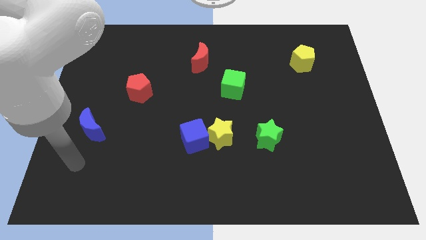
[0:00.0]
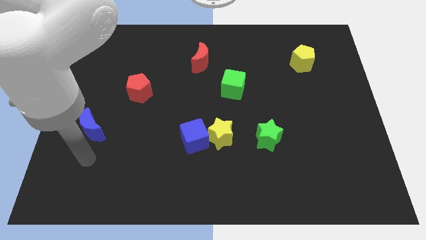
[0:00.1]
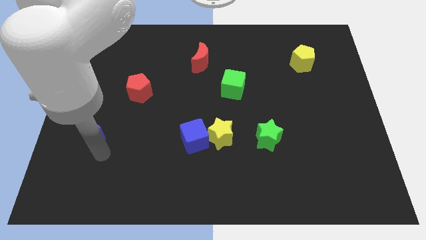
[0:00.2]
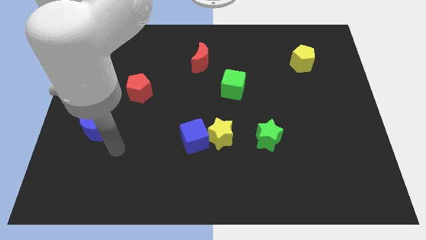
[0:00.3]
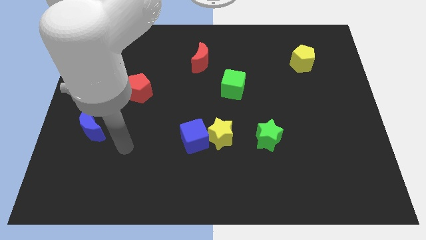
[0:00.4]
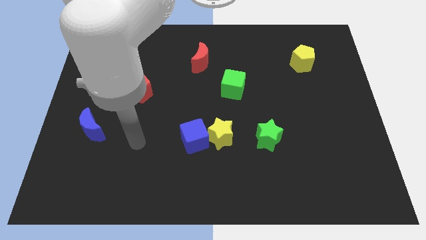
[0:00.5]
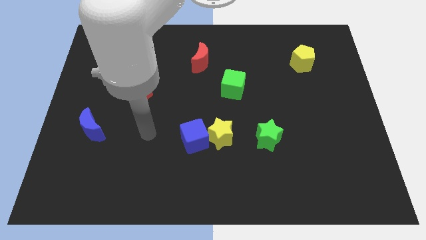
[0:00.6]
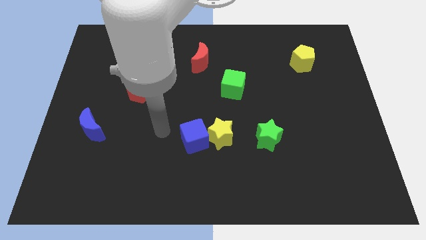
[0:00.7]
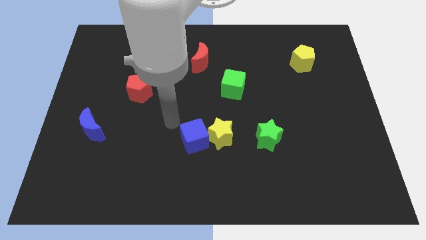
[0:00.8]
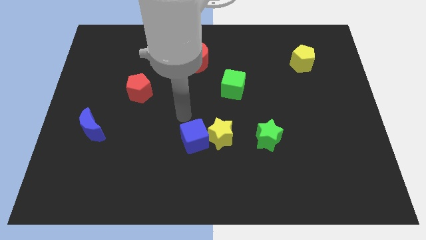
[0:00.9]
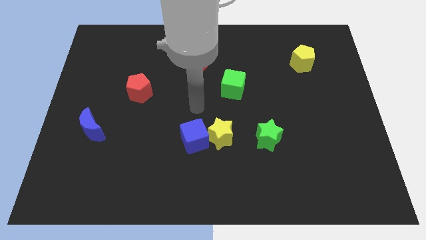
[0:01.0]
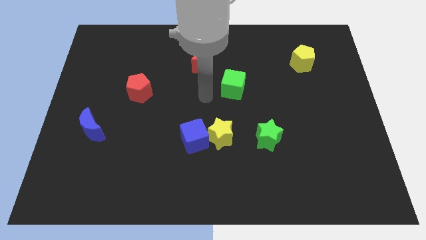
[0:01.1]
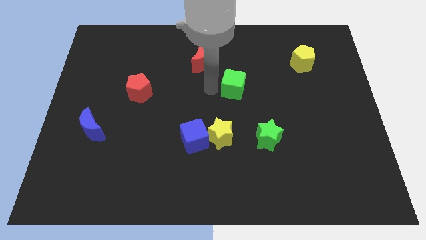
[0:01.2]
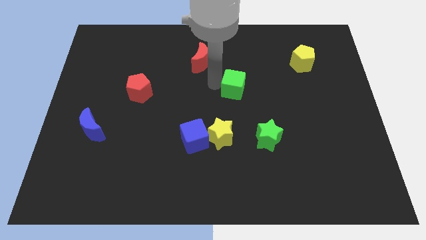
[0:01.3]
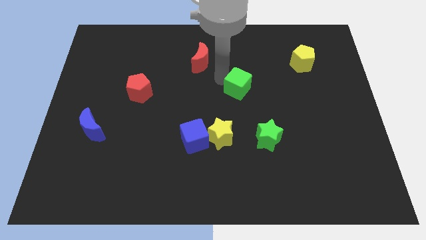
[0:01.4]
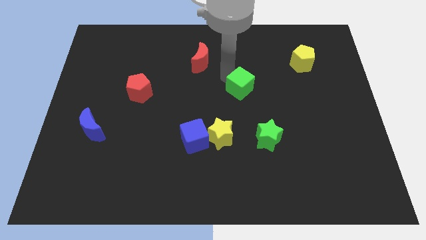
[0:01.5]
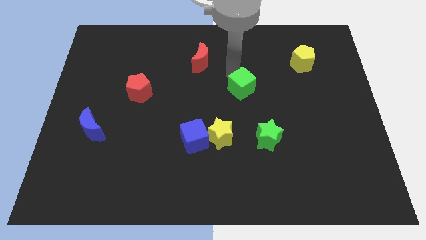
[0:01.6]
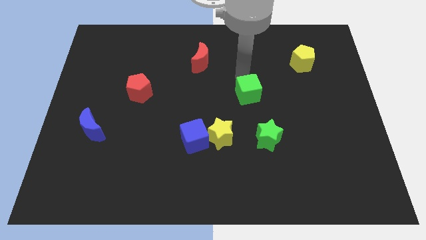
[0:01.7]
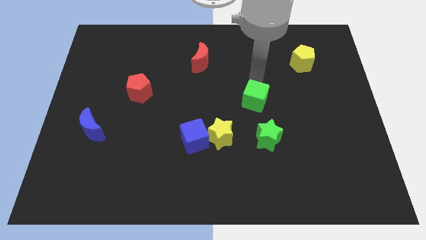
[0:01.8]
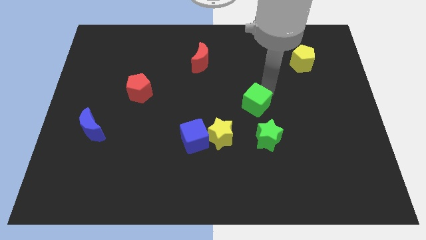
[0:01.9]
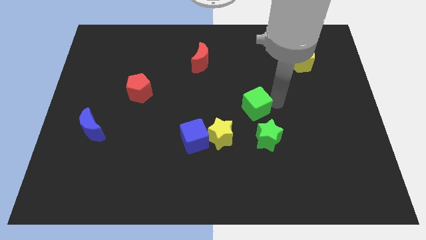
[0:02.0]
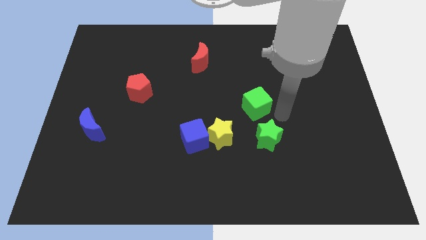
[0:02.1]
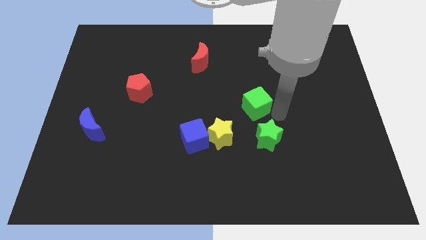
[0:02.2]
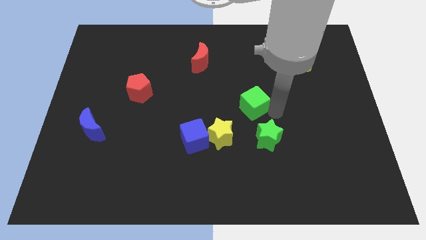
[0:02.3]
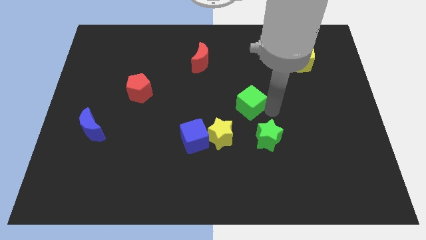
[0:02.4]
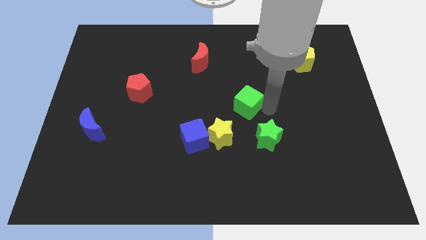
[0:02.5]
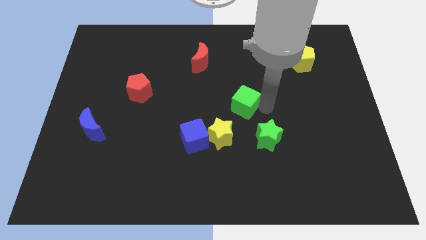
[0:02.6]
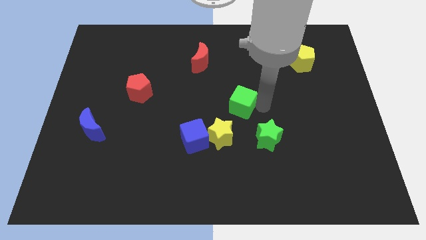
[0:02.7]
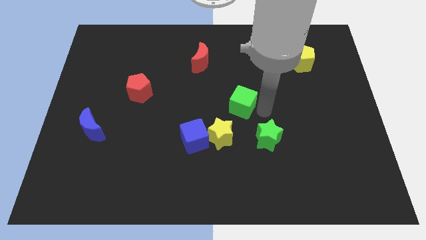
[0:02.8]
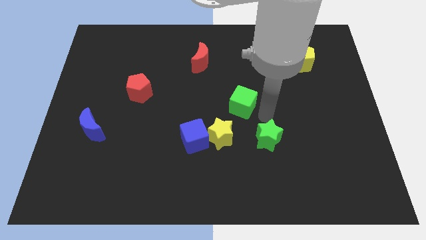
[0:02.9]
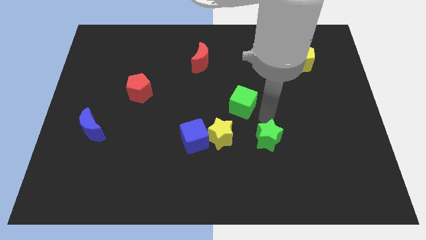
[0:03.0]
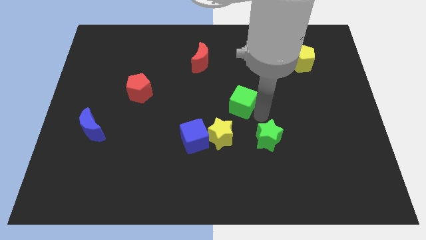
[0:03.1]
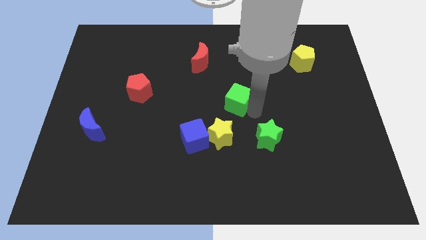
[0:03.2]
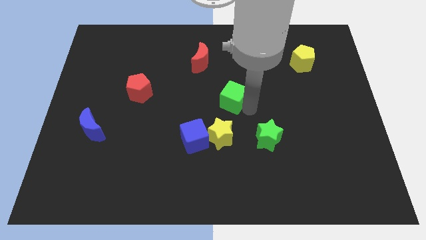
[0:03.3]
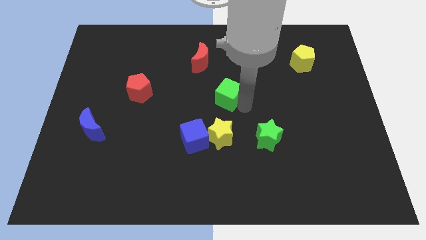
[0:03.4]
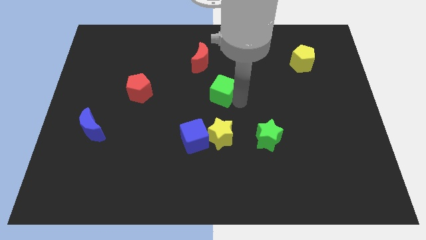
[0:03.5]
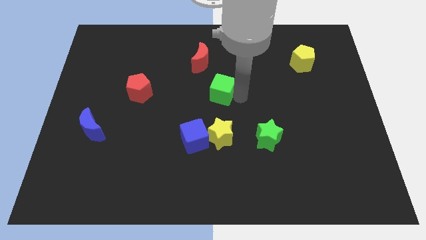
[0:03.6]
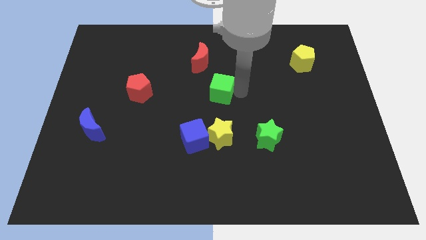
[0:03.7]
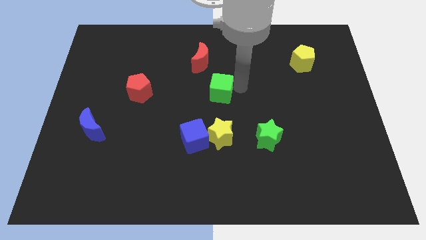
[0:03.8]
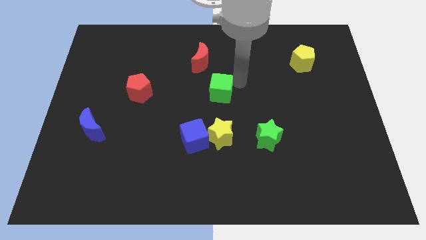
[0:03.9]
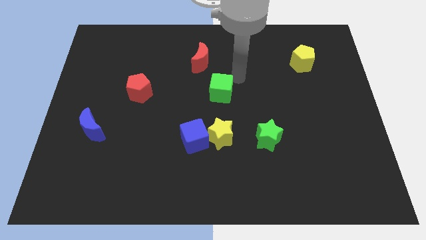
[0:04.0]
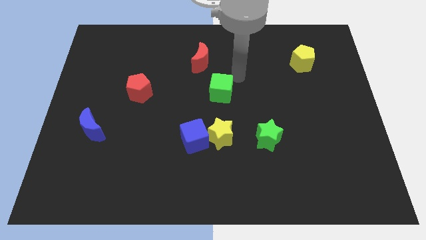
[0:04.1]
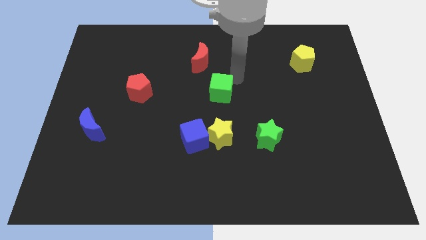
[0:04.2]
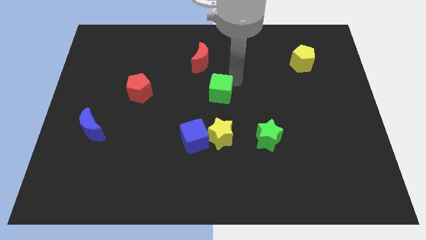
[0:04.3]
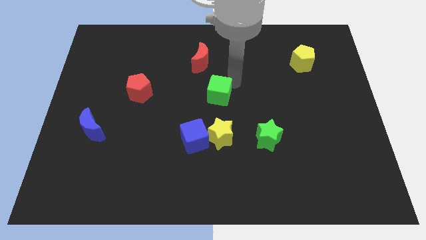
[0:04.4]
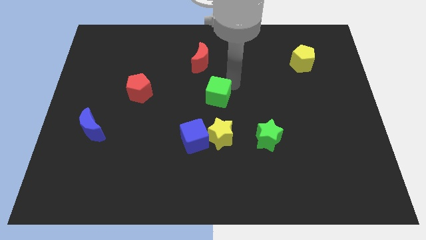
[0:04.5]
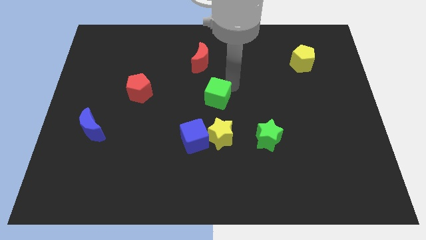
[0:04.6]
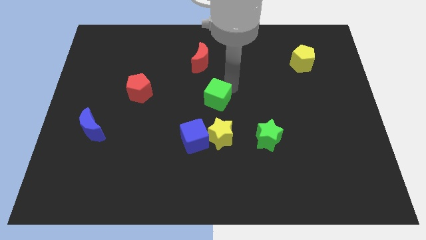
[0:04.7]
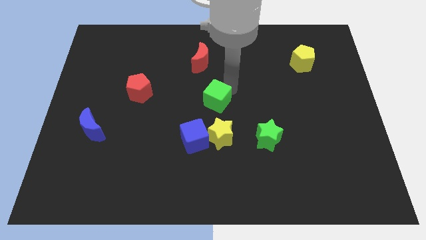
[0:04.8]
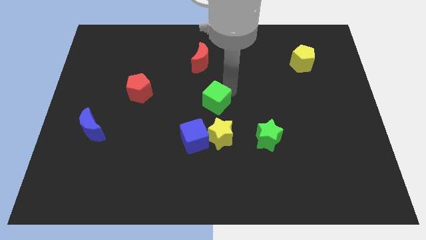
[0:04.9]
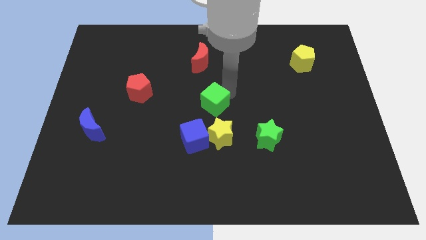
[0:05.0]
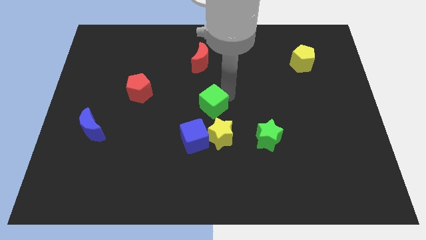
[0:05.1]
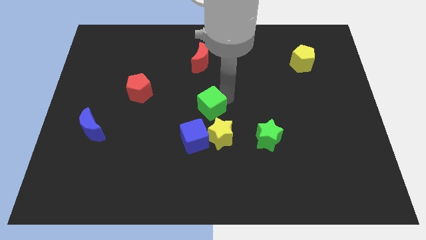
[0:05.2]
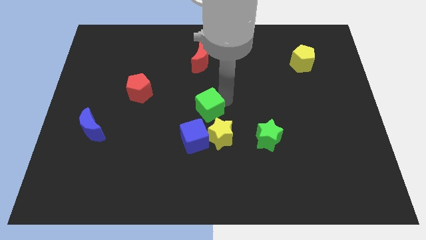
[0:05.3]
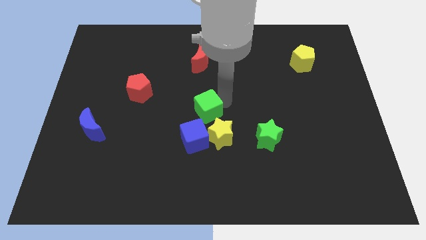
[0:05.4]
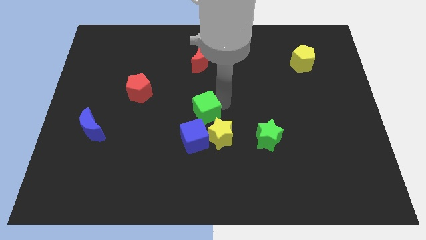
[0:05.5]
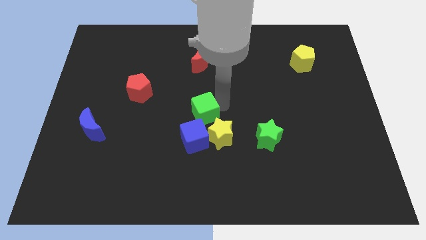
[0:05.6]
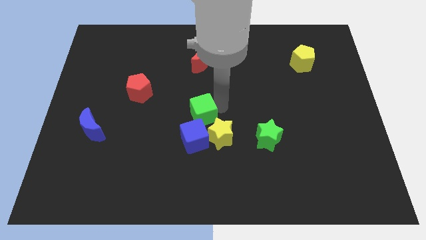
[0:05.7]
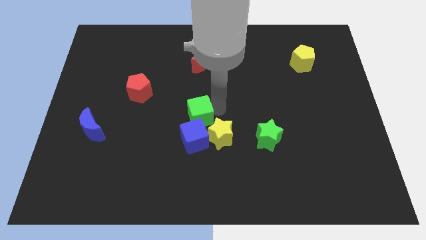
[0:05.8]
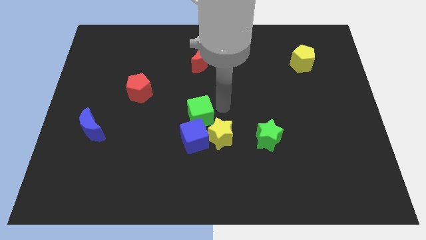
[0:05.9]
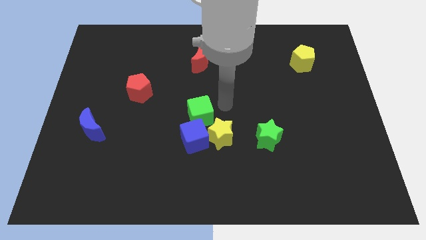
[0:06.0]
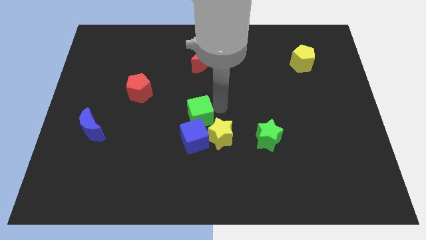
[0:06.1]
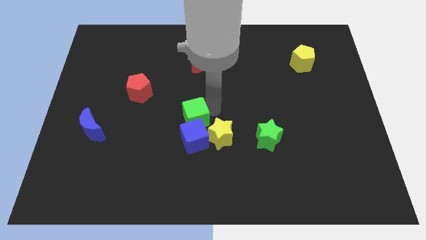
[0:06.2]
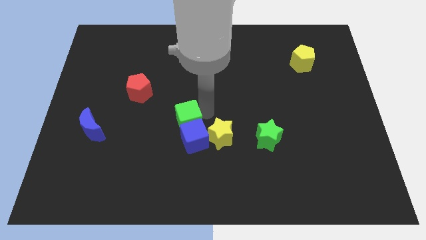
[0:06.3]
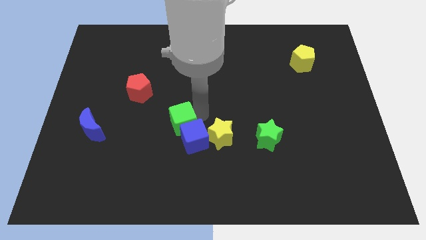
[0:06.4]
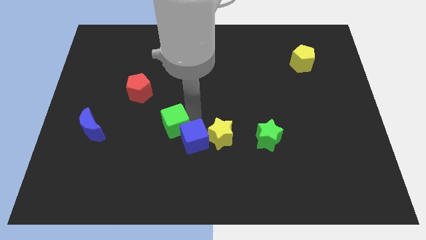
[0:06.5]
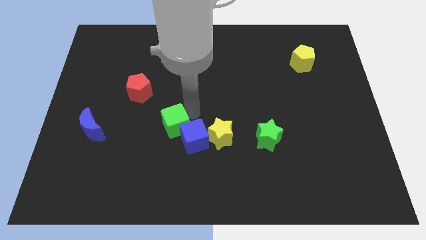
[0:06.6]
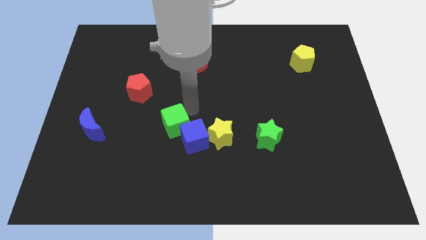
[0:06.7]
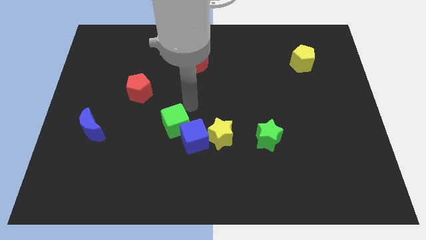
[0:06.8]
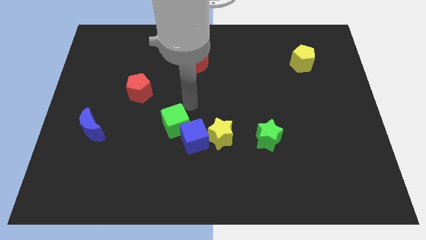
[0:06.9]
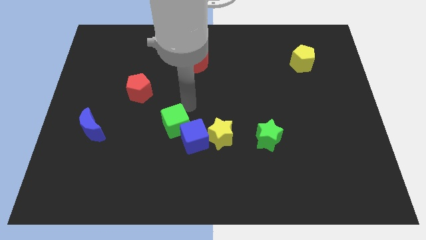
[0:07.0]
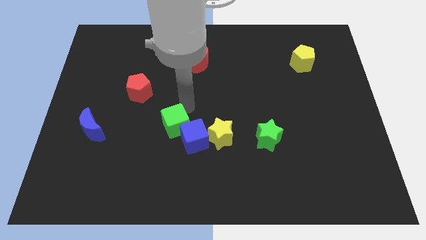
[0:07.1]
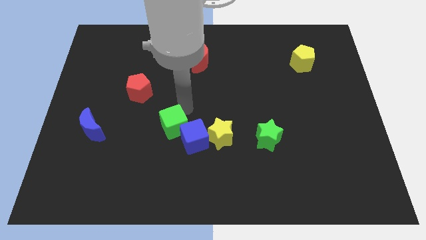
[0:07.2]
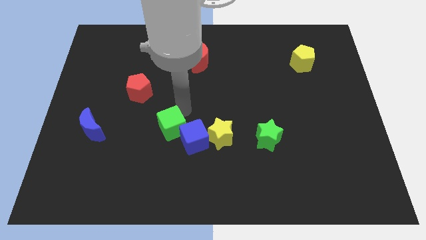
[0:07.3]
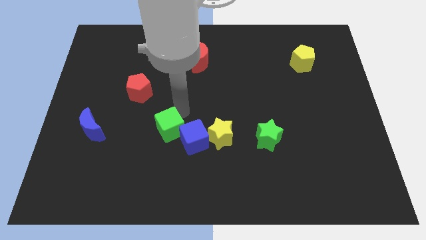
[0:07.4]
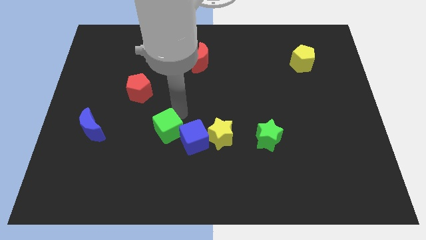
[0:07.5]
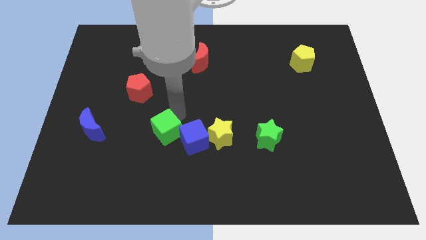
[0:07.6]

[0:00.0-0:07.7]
slide the green cube diagonally downwards and left

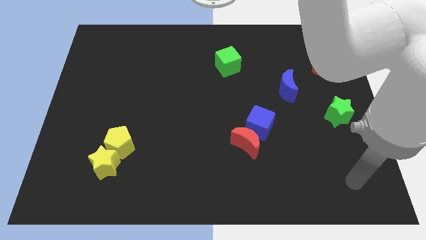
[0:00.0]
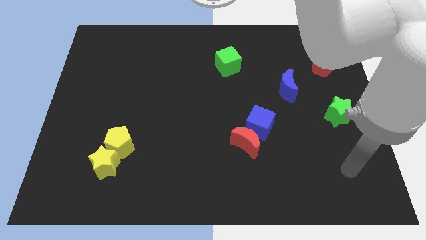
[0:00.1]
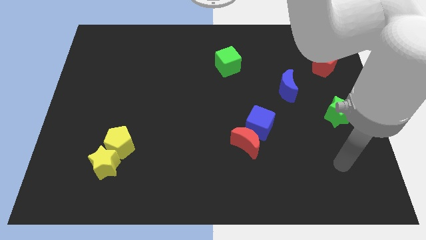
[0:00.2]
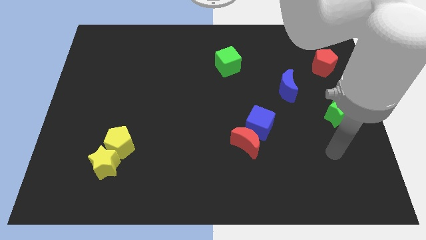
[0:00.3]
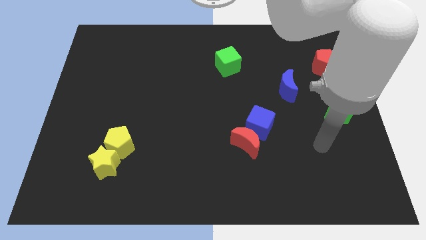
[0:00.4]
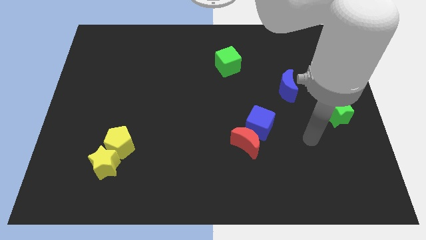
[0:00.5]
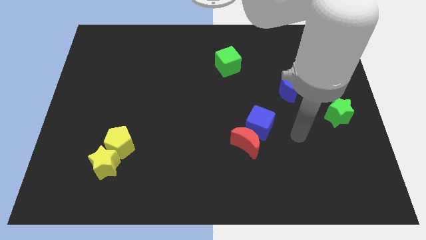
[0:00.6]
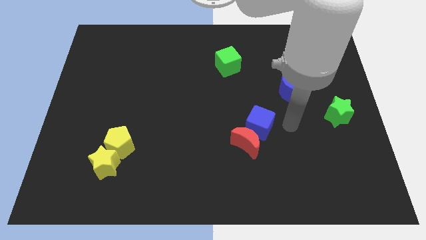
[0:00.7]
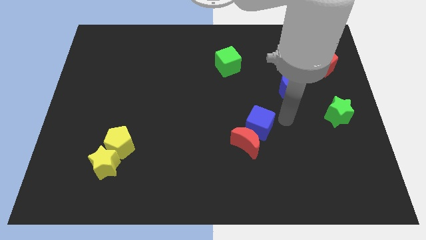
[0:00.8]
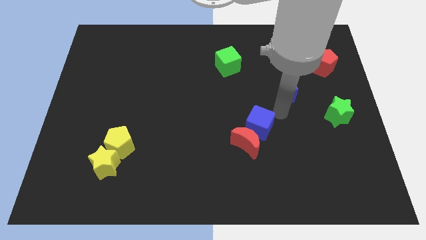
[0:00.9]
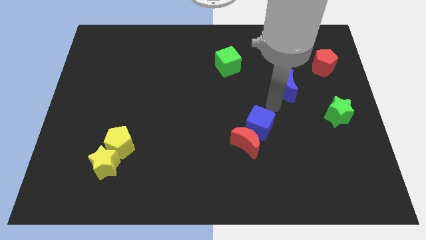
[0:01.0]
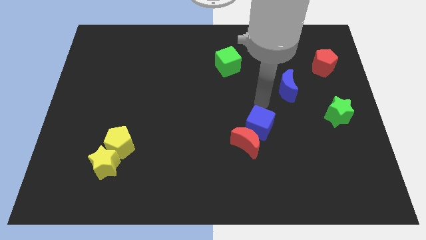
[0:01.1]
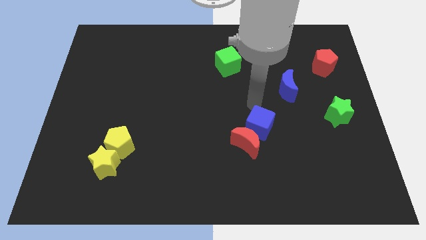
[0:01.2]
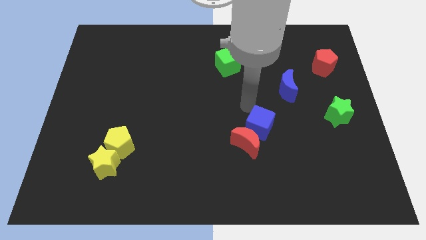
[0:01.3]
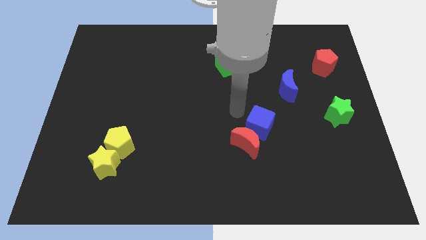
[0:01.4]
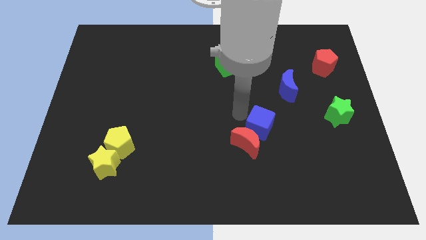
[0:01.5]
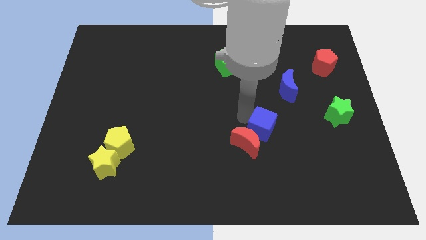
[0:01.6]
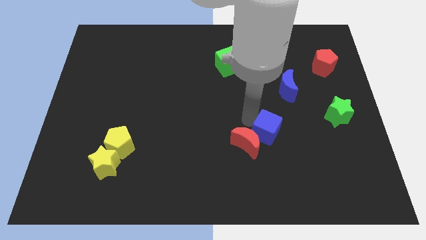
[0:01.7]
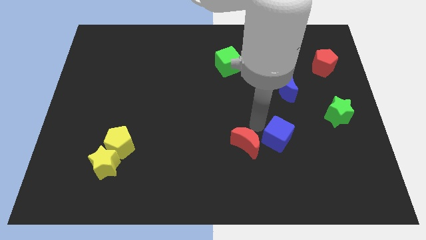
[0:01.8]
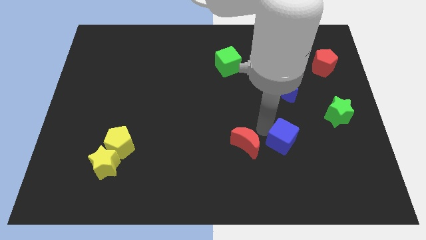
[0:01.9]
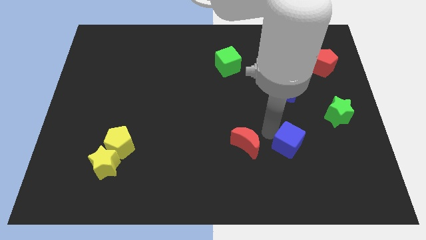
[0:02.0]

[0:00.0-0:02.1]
push the blue cube a little bit diagonally downwards and to the right
